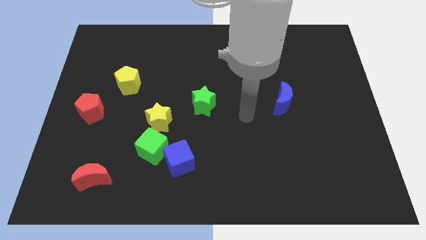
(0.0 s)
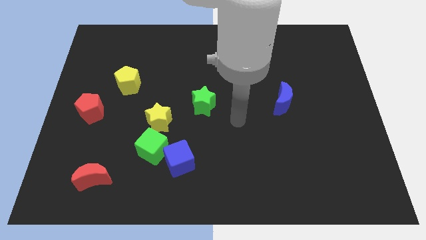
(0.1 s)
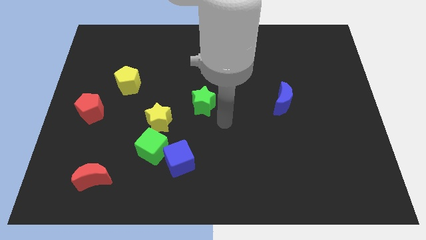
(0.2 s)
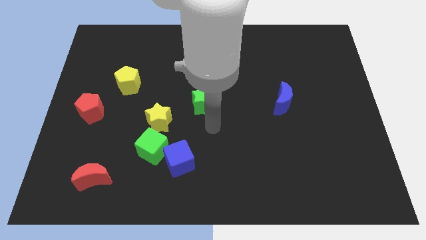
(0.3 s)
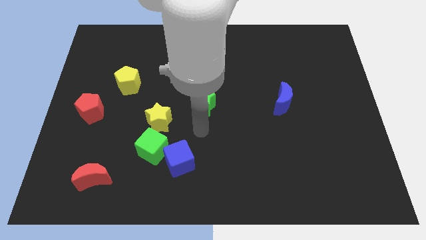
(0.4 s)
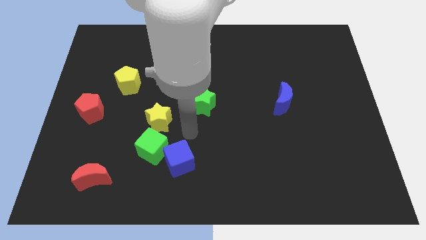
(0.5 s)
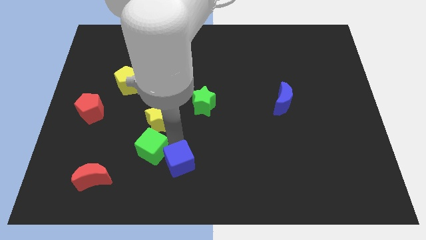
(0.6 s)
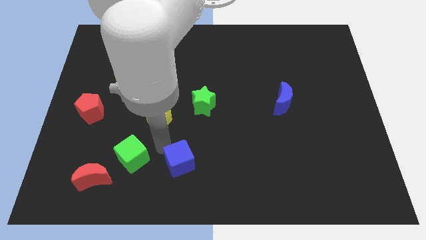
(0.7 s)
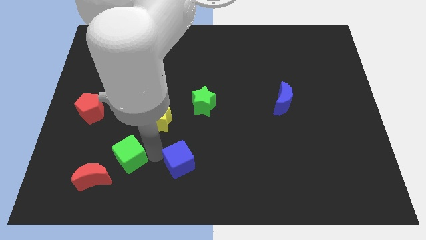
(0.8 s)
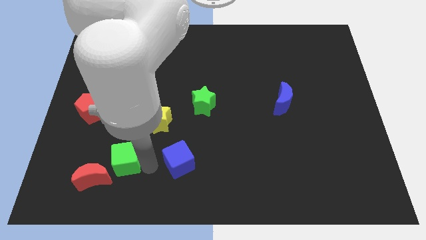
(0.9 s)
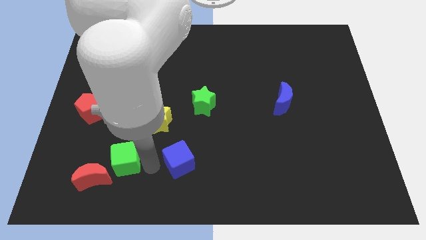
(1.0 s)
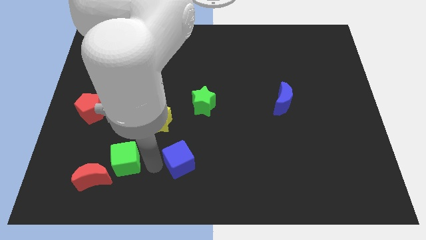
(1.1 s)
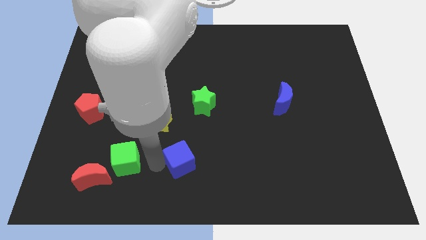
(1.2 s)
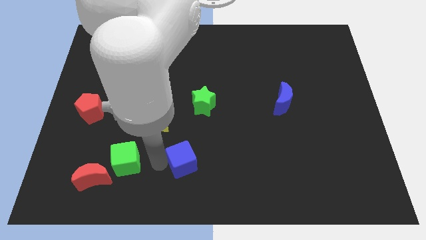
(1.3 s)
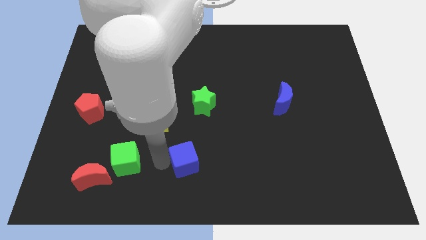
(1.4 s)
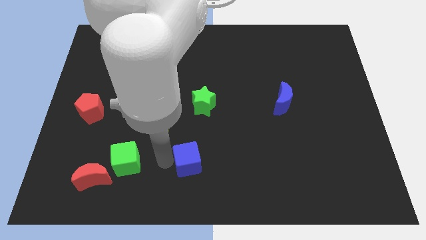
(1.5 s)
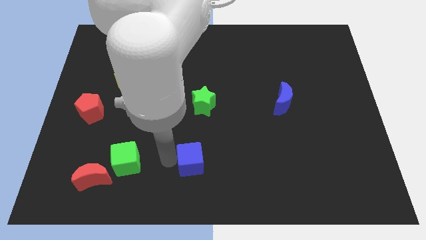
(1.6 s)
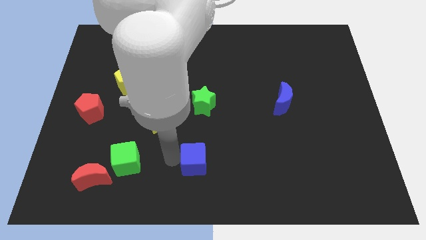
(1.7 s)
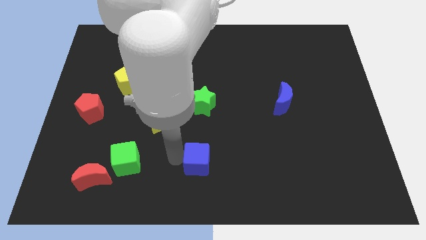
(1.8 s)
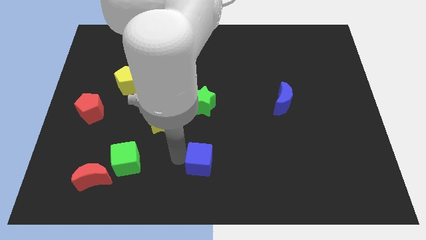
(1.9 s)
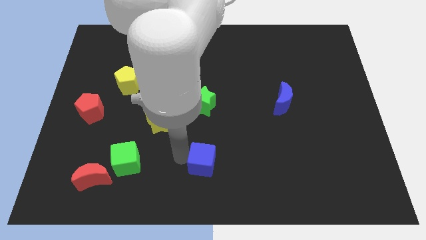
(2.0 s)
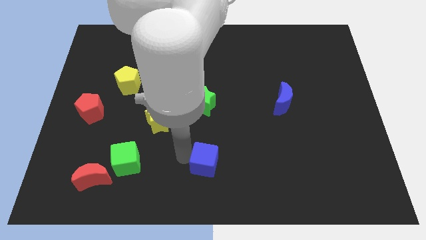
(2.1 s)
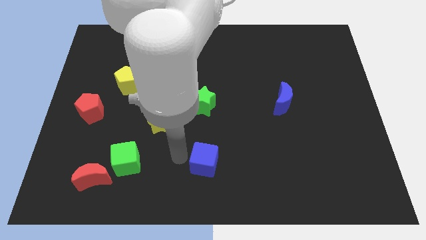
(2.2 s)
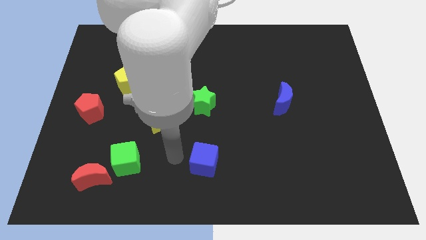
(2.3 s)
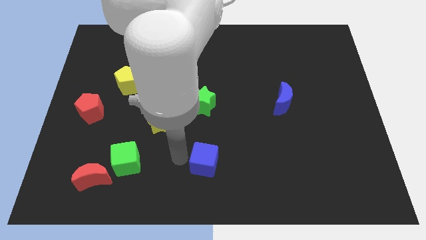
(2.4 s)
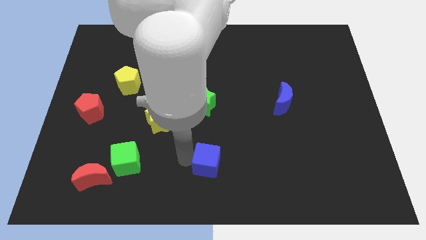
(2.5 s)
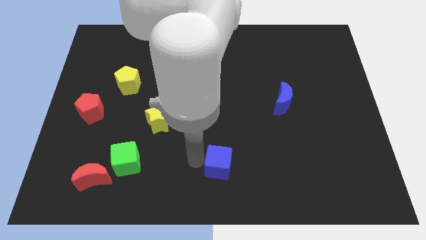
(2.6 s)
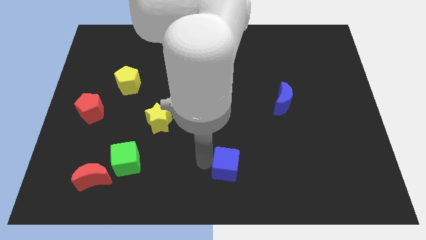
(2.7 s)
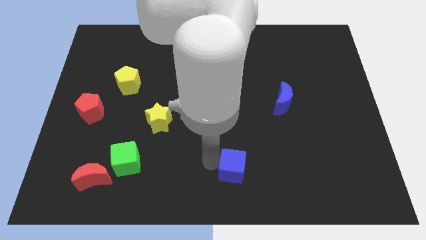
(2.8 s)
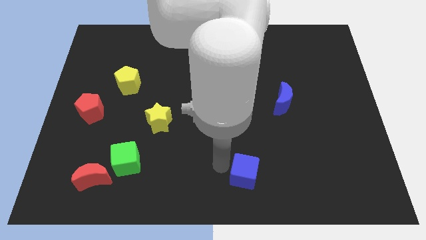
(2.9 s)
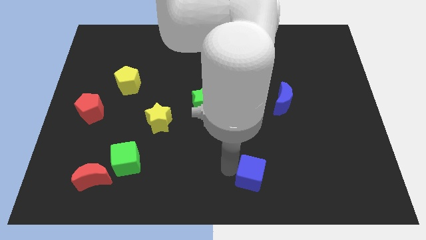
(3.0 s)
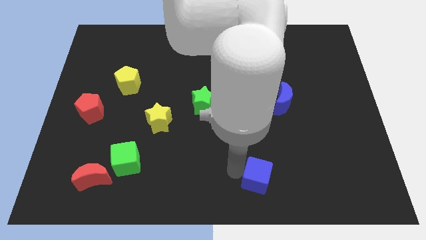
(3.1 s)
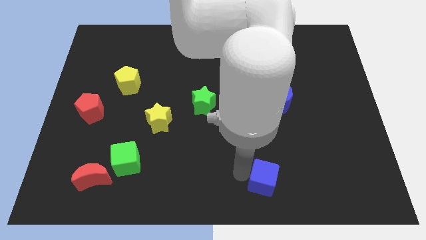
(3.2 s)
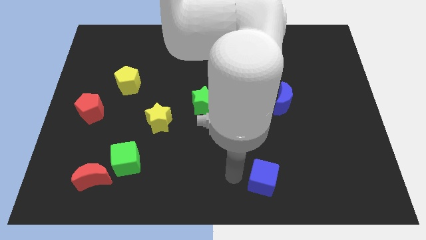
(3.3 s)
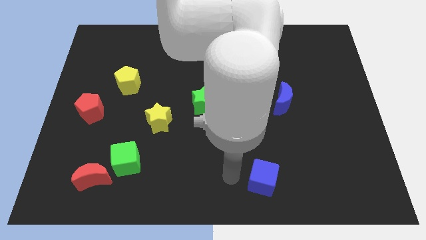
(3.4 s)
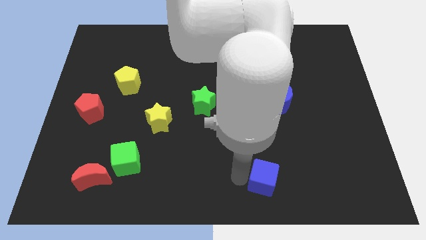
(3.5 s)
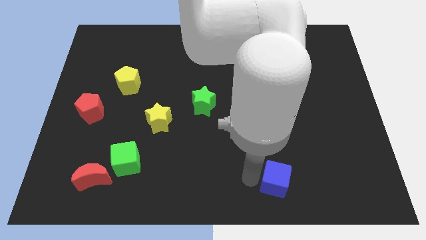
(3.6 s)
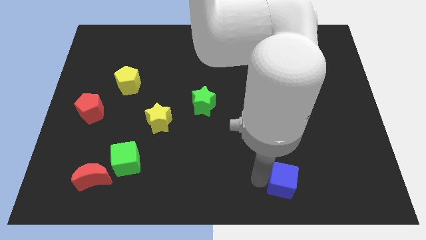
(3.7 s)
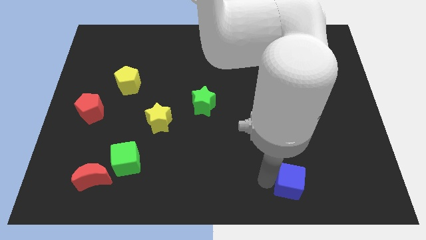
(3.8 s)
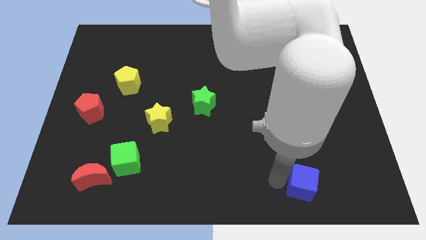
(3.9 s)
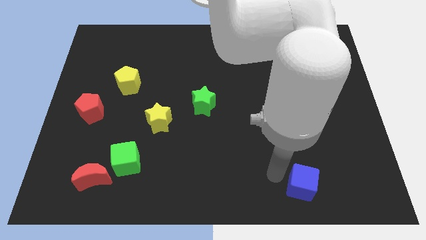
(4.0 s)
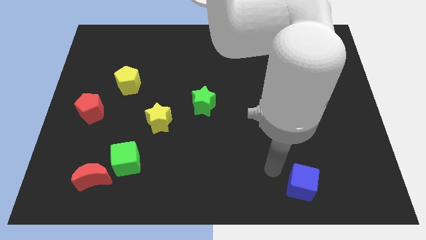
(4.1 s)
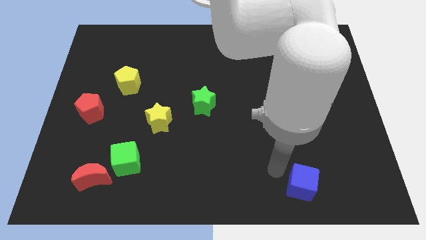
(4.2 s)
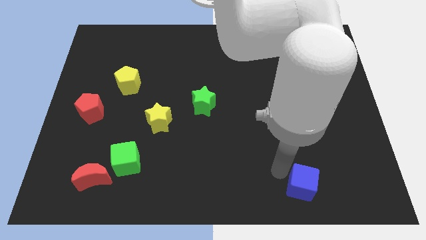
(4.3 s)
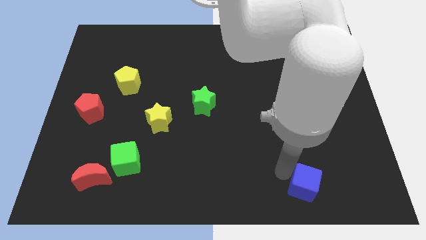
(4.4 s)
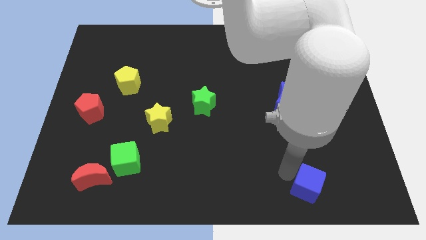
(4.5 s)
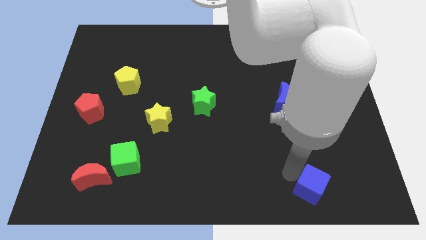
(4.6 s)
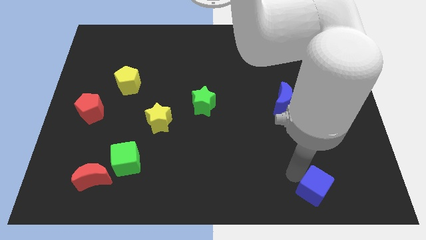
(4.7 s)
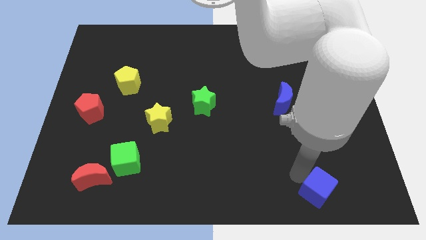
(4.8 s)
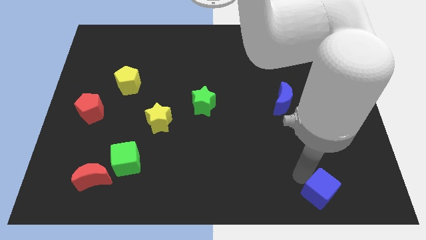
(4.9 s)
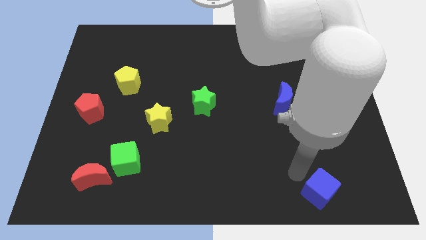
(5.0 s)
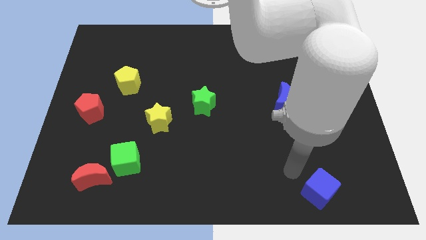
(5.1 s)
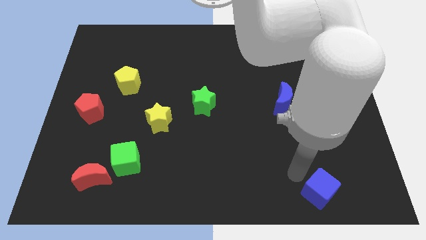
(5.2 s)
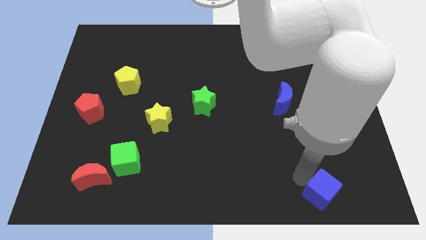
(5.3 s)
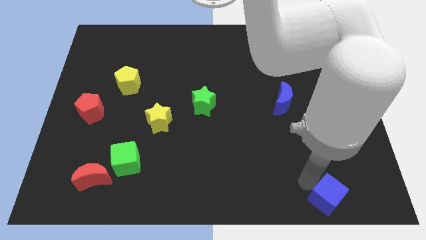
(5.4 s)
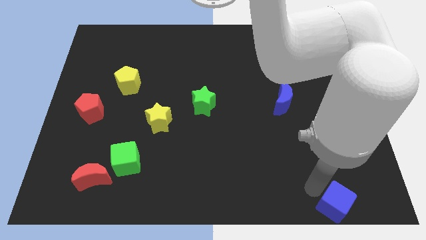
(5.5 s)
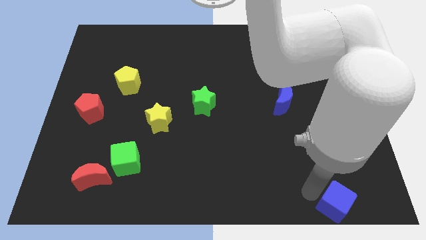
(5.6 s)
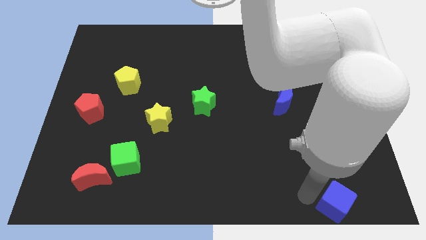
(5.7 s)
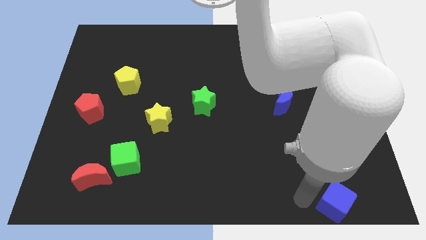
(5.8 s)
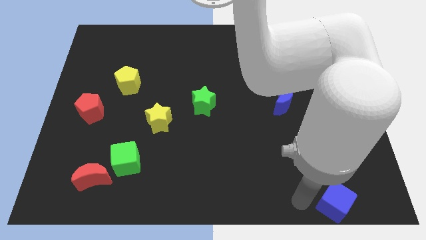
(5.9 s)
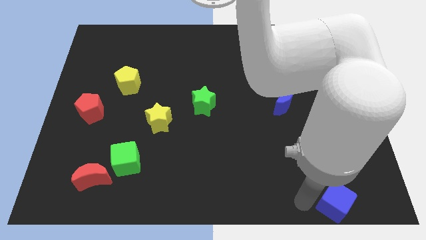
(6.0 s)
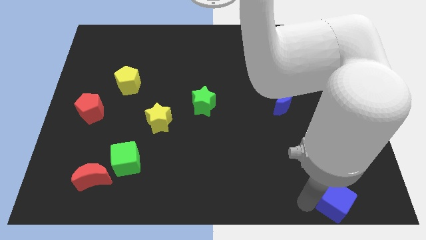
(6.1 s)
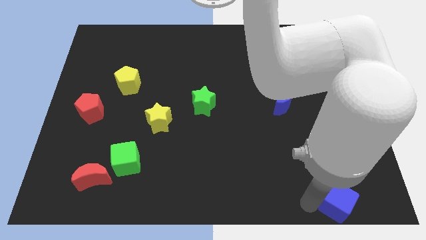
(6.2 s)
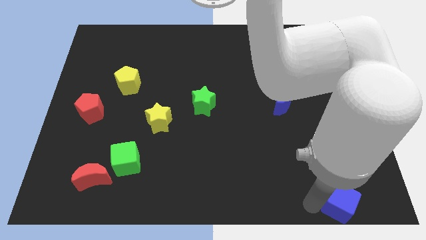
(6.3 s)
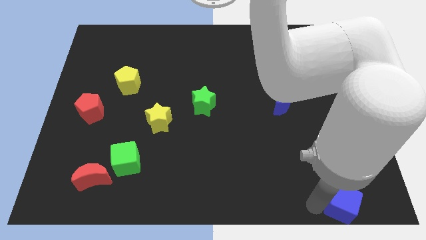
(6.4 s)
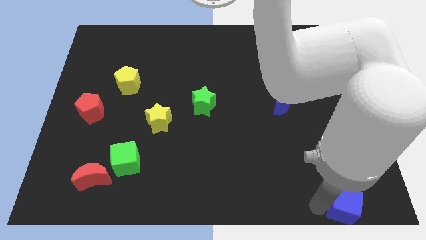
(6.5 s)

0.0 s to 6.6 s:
push the blue cube to the lower right corner
